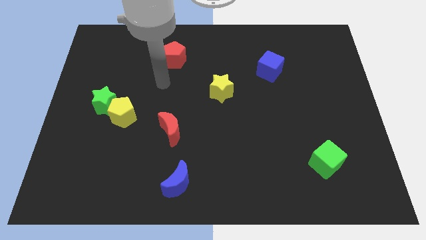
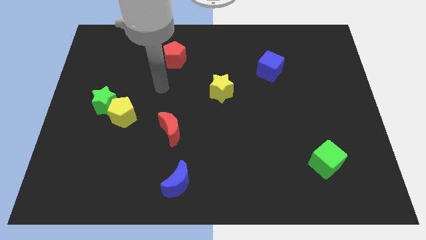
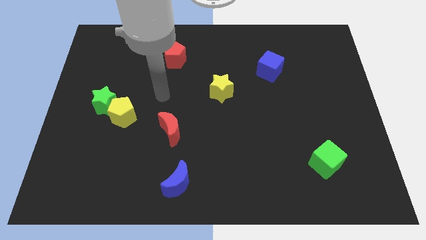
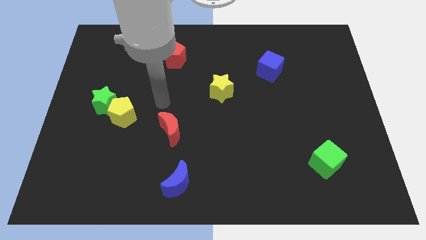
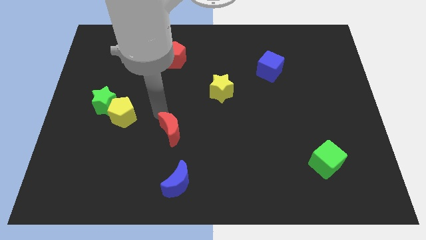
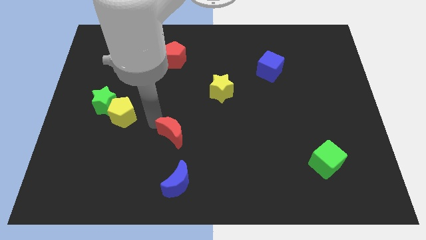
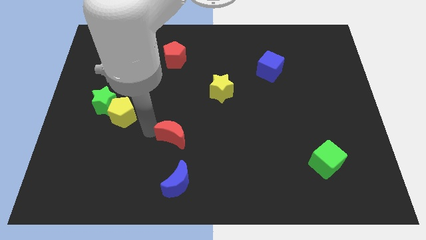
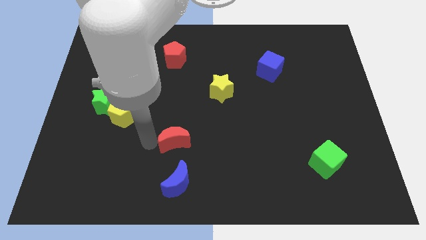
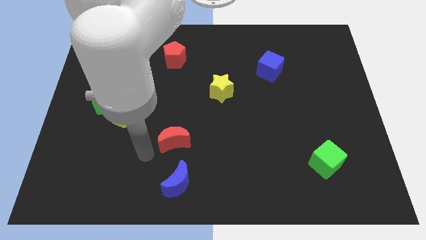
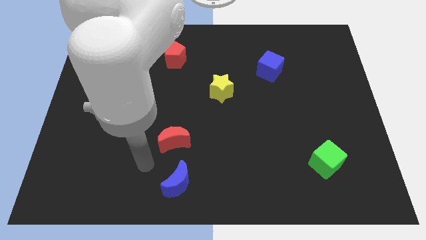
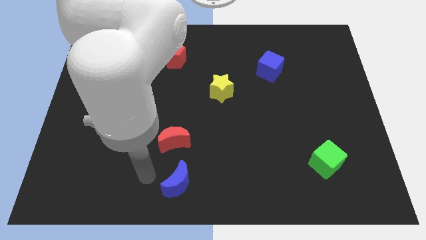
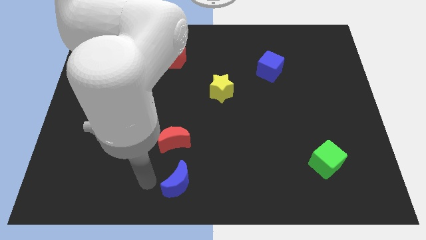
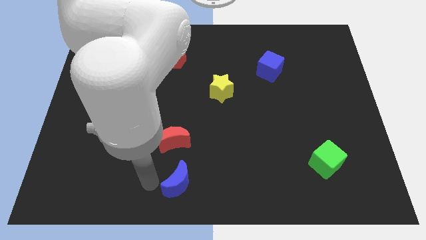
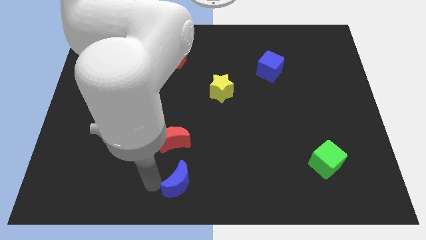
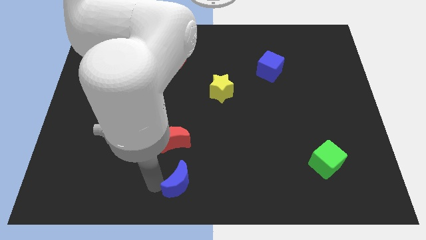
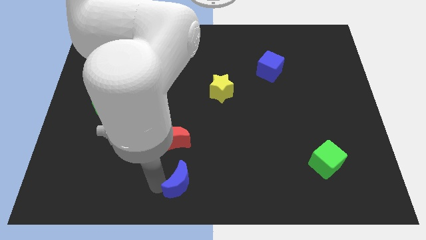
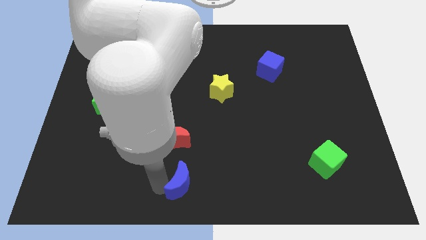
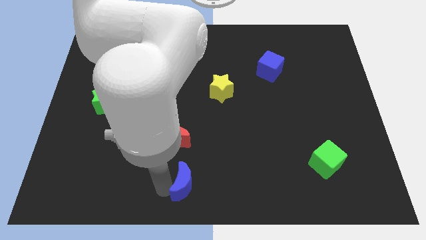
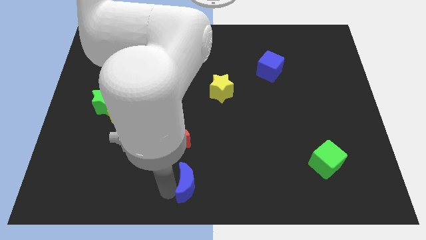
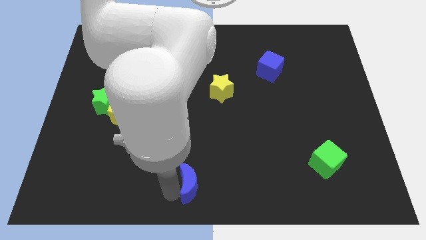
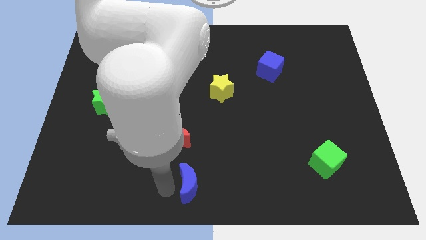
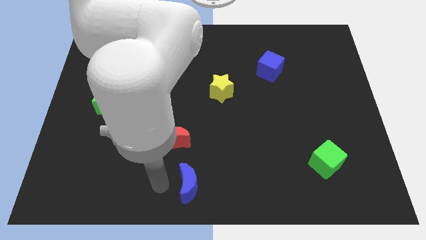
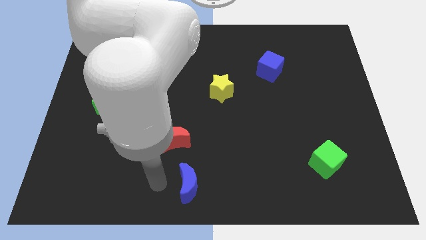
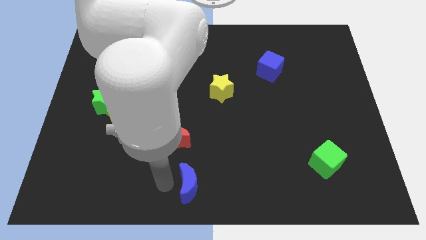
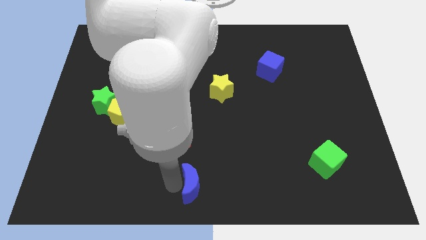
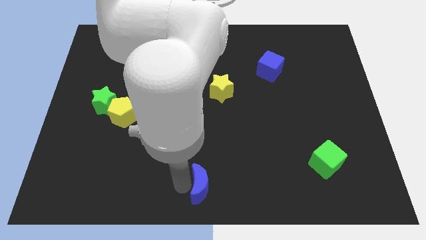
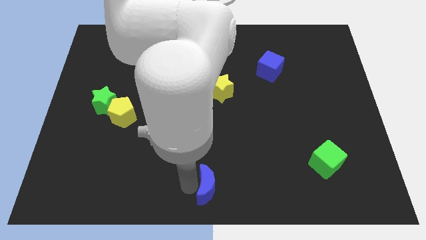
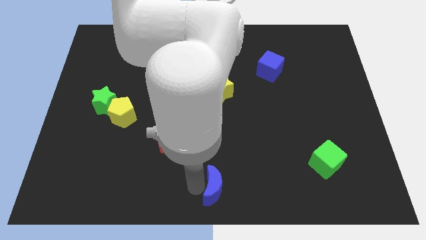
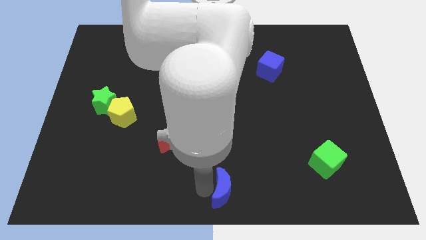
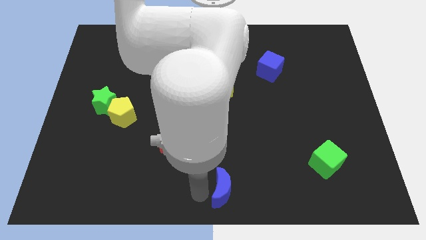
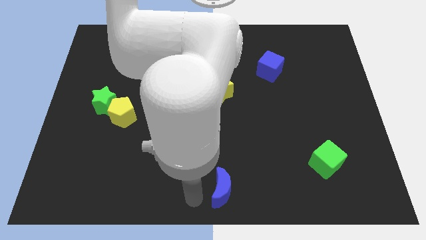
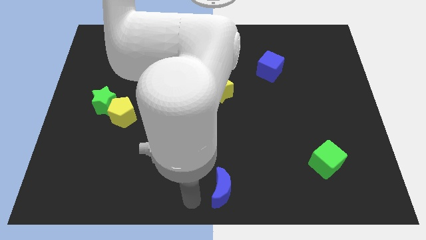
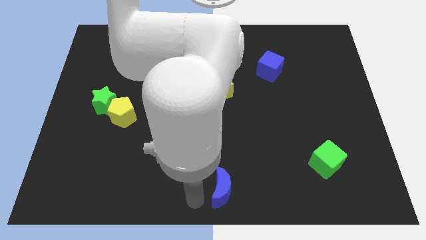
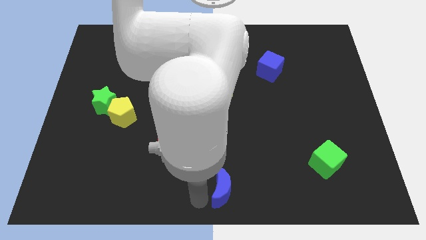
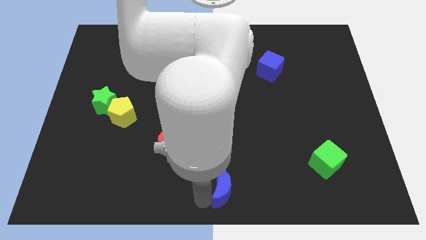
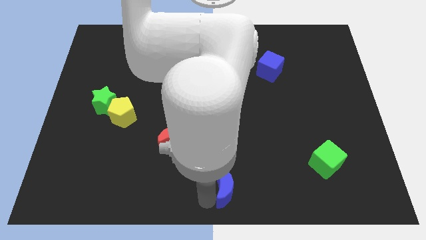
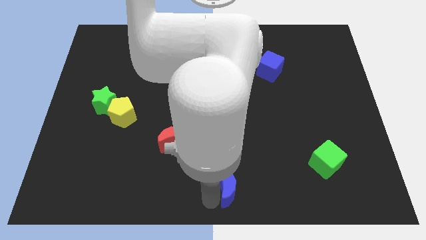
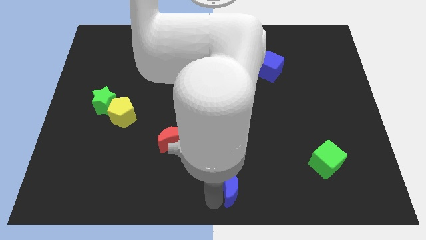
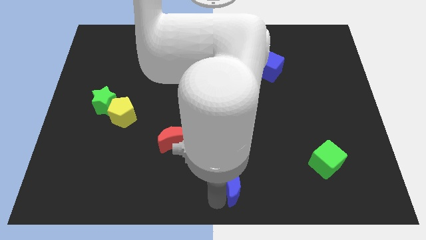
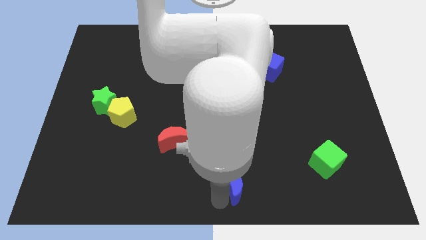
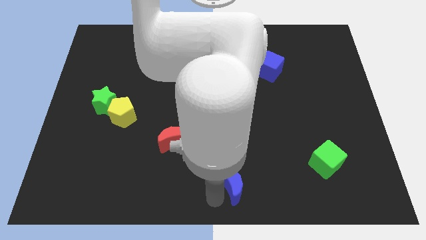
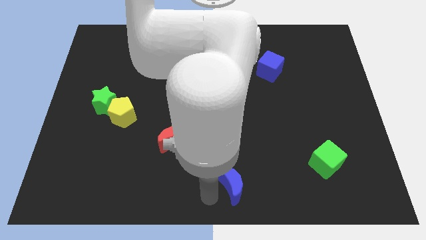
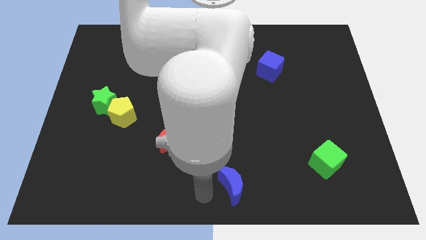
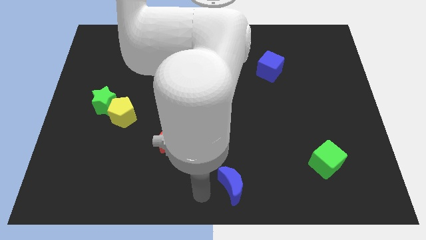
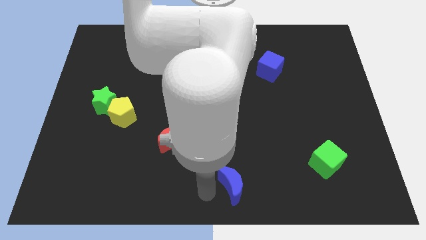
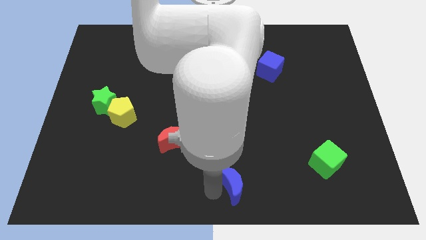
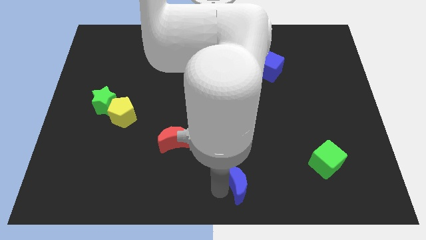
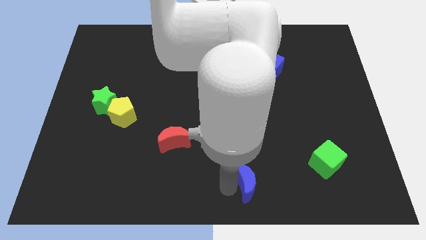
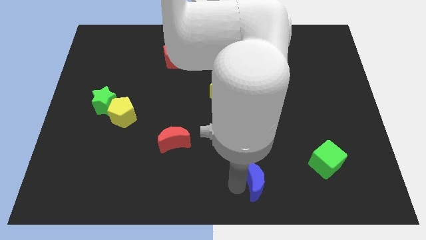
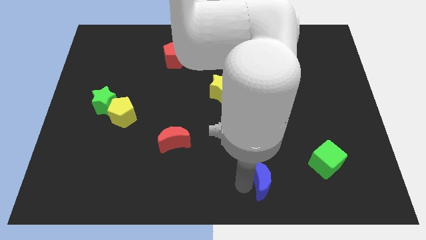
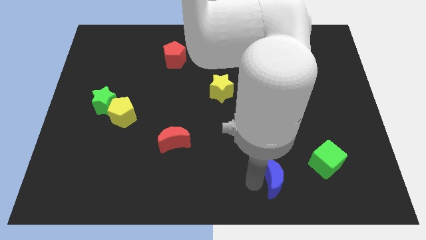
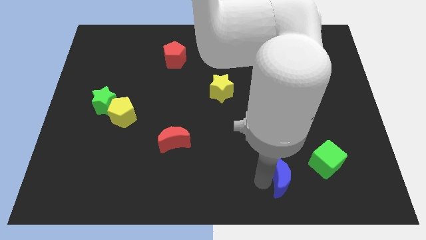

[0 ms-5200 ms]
push the blue moon right

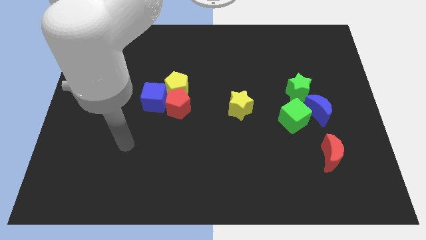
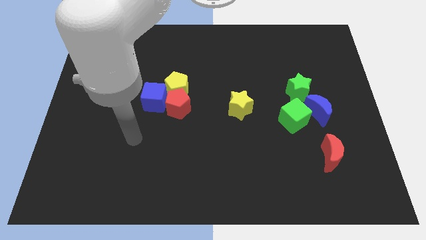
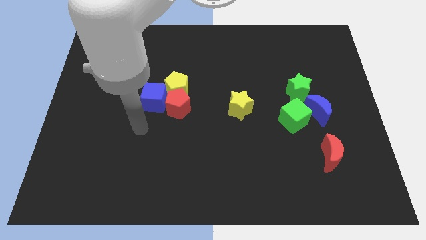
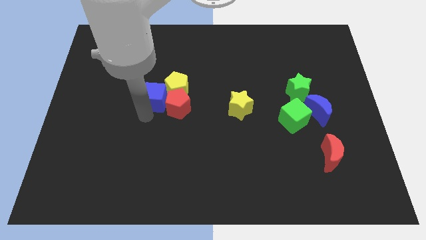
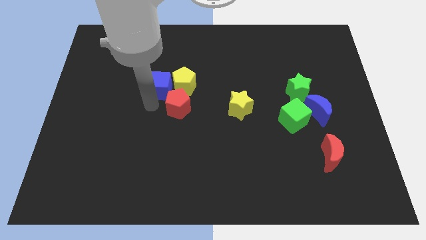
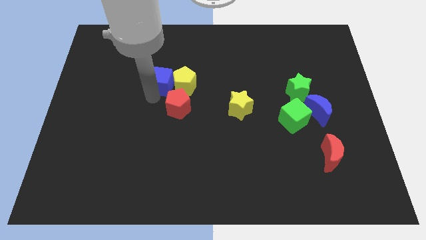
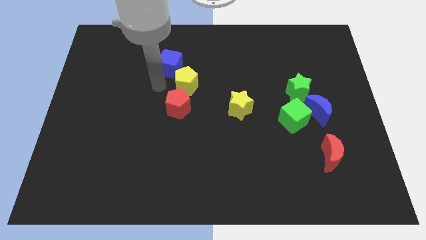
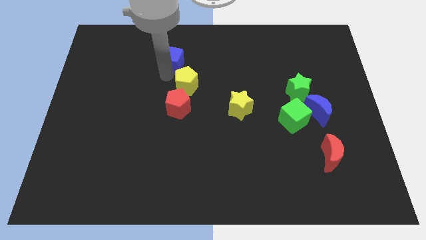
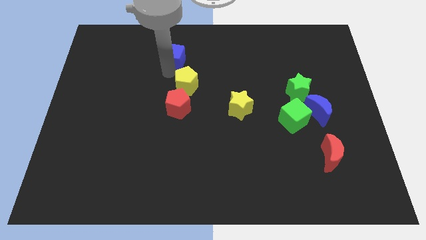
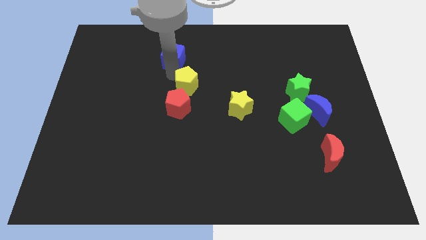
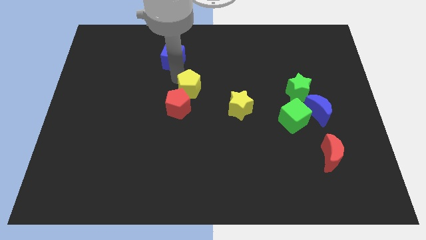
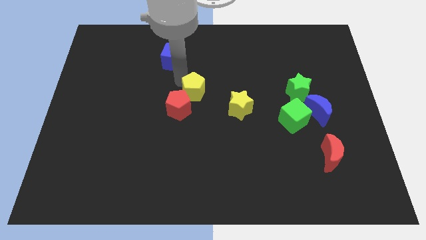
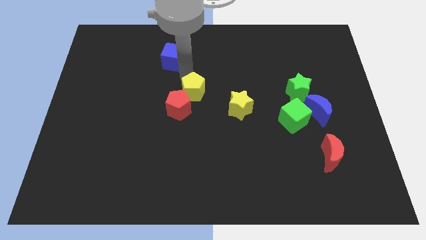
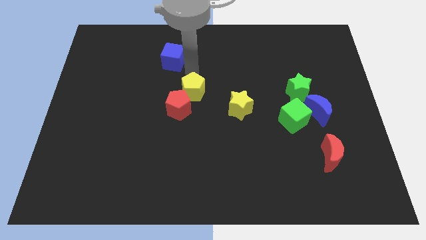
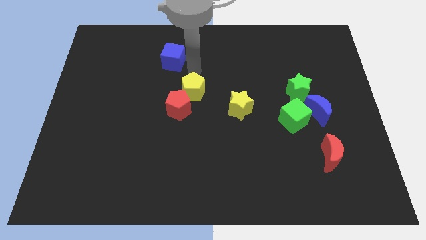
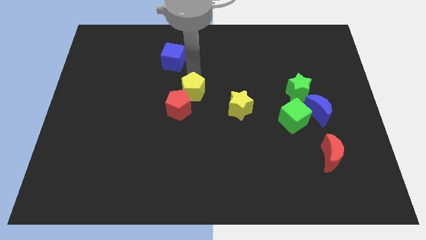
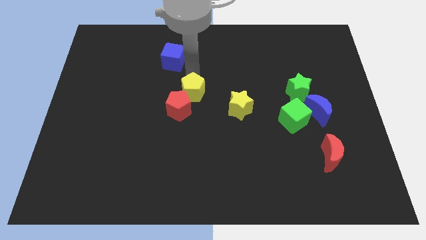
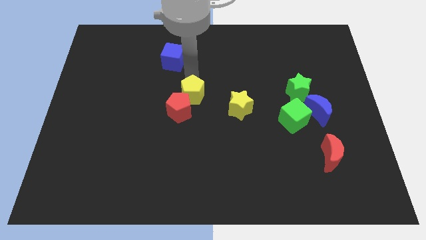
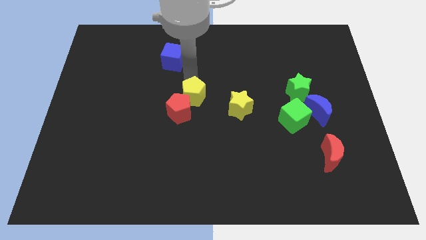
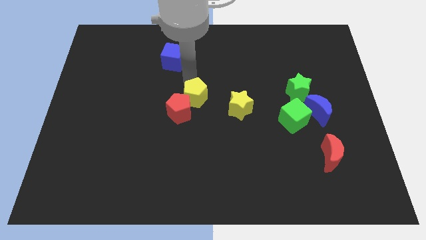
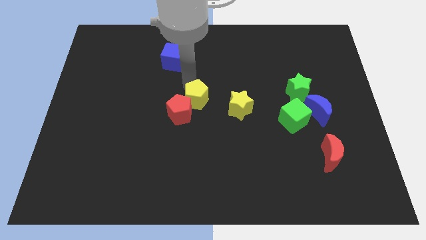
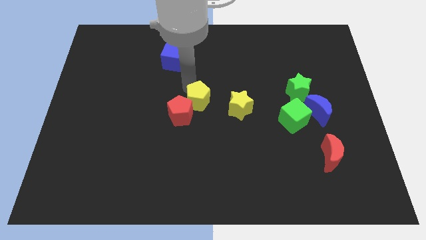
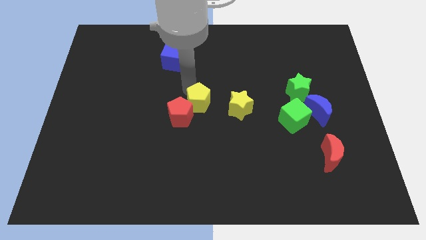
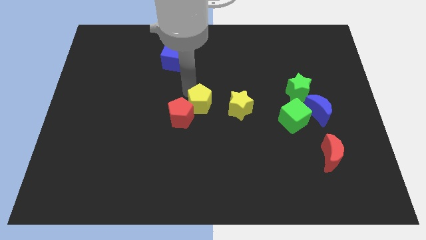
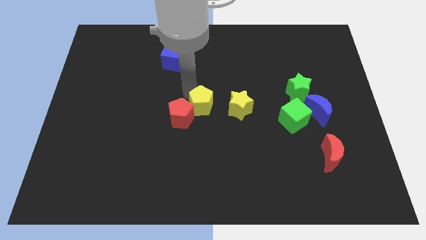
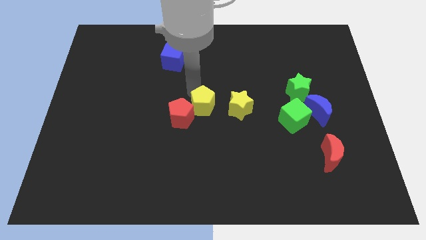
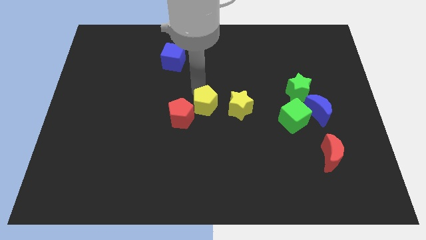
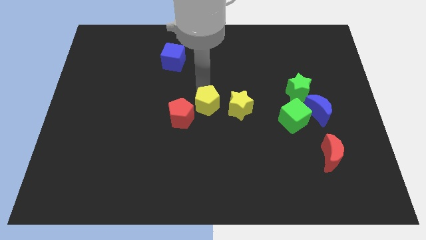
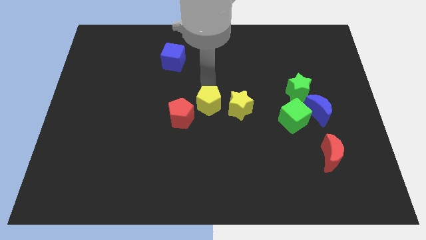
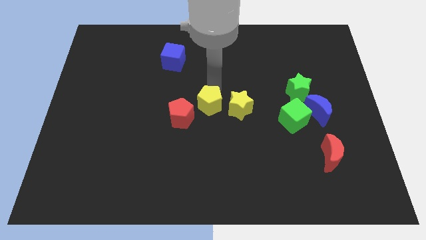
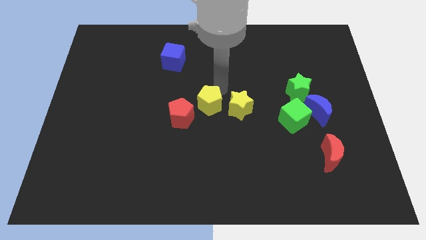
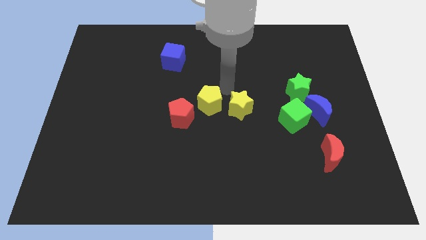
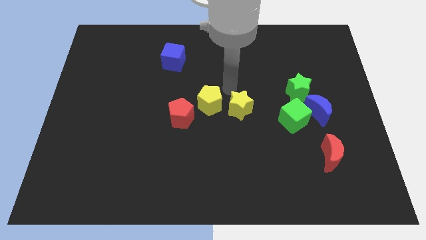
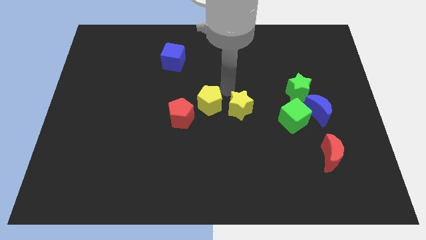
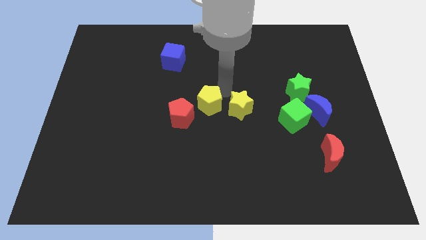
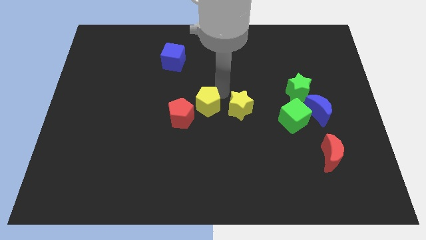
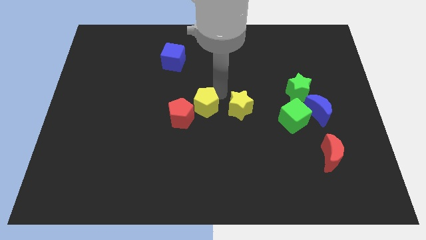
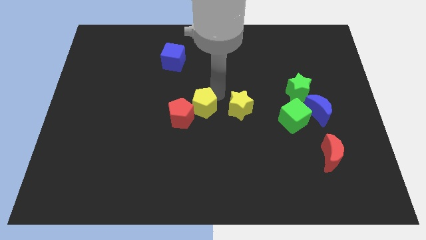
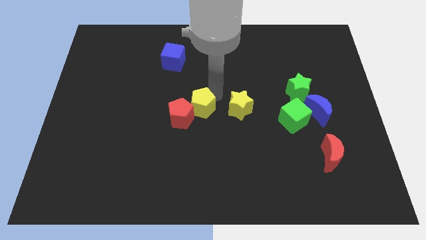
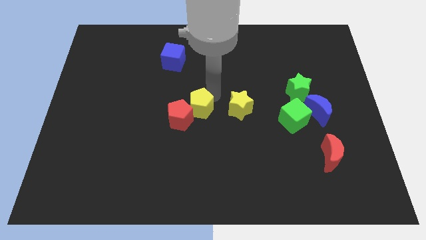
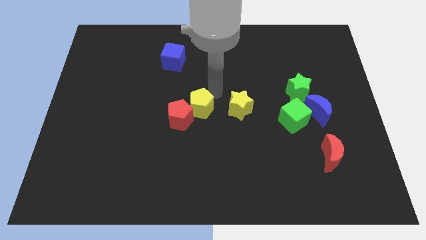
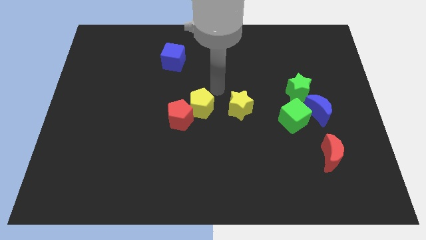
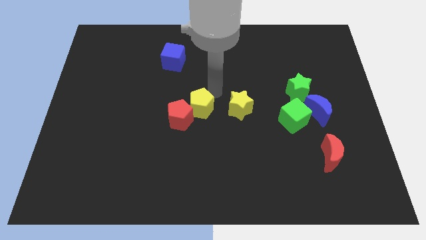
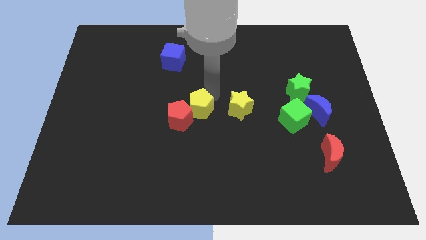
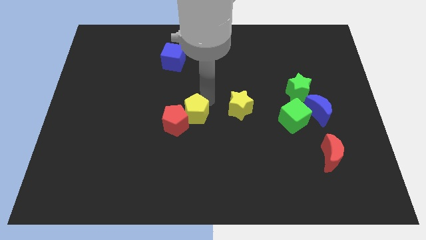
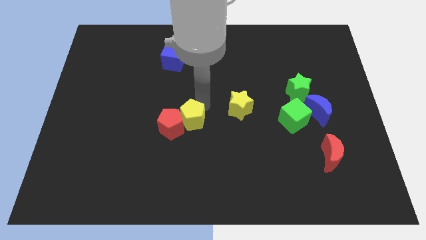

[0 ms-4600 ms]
slightly push the yellow pentagon downwards
